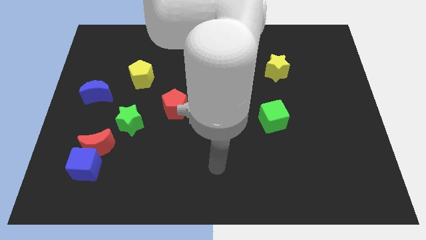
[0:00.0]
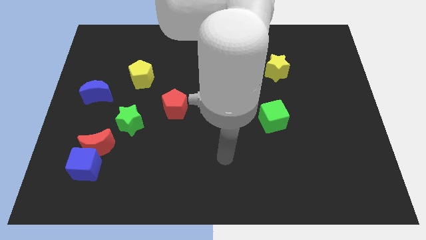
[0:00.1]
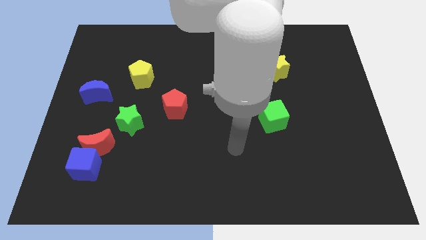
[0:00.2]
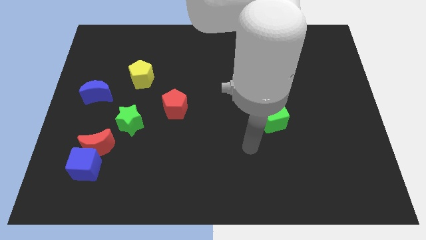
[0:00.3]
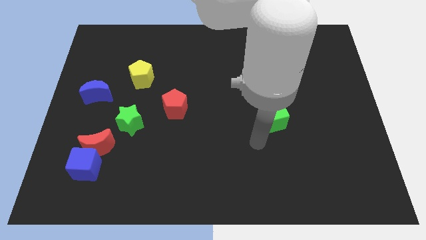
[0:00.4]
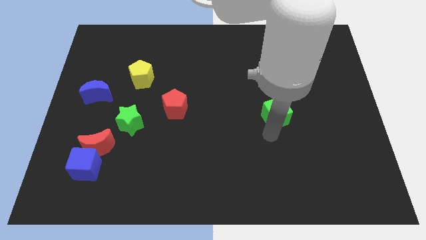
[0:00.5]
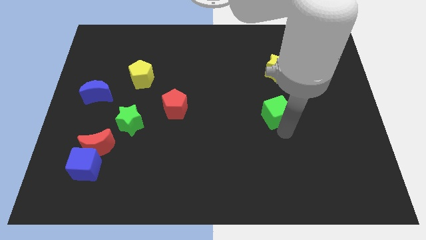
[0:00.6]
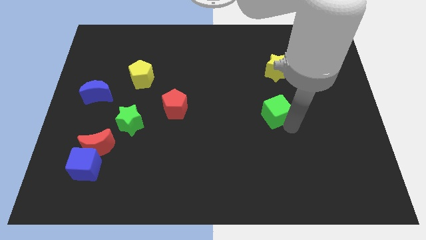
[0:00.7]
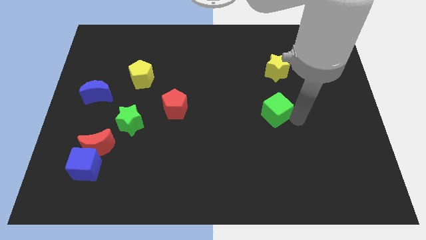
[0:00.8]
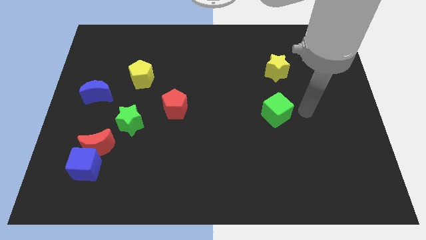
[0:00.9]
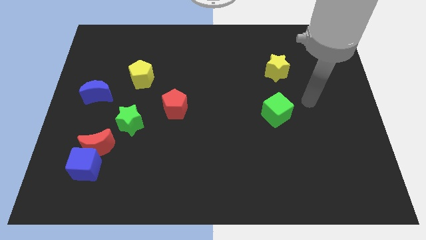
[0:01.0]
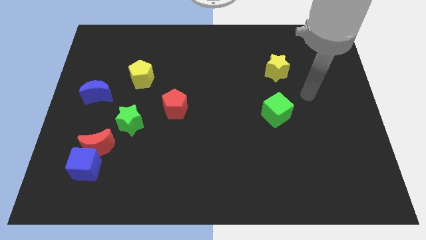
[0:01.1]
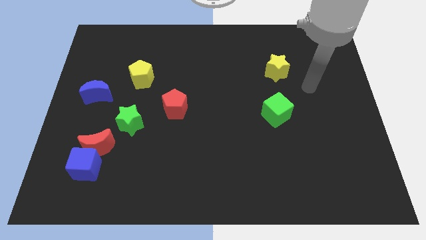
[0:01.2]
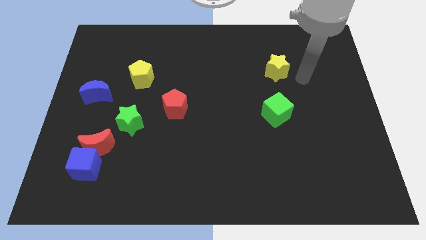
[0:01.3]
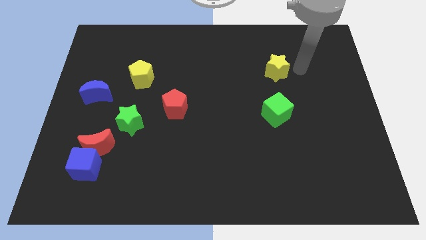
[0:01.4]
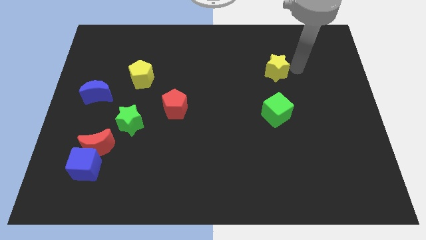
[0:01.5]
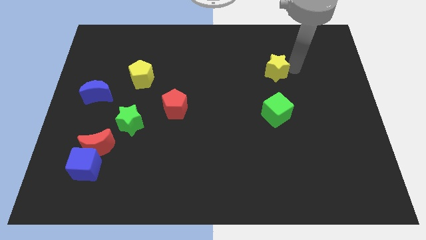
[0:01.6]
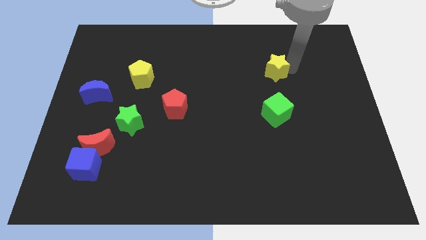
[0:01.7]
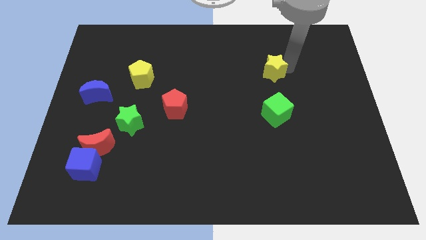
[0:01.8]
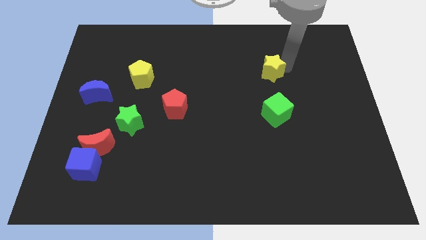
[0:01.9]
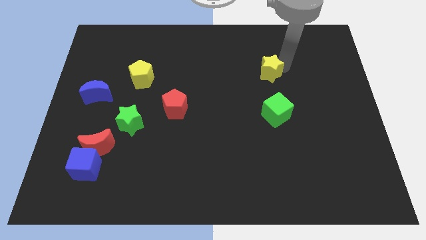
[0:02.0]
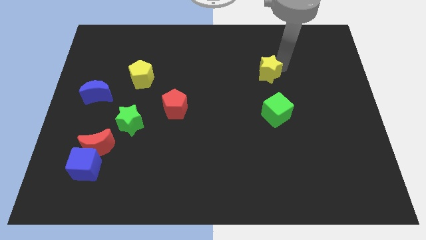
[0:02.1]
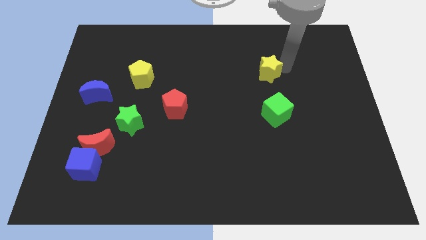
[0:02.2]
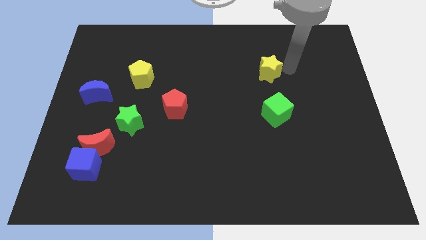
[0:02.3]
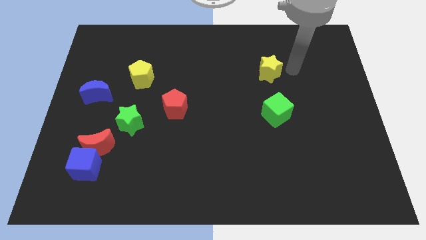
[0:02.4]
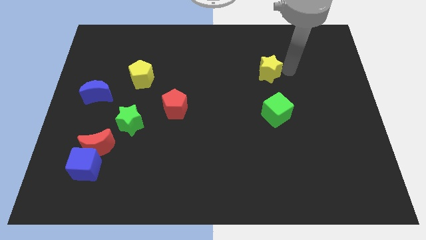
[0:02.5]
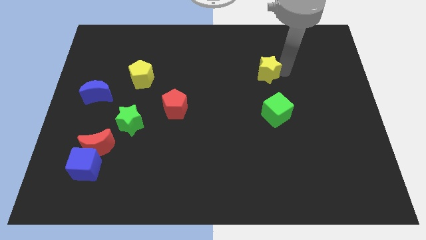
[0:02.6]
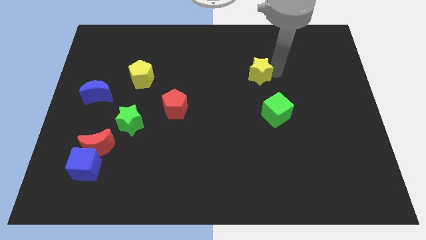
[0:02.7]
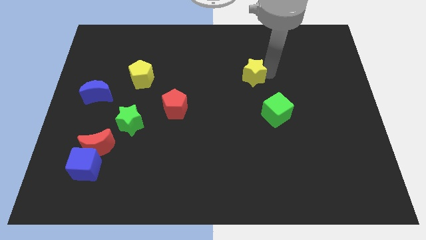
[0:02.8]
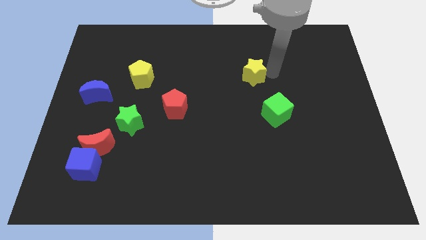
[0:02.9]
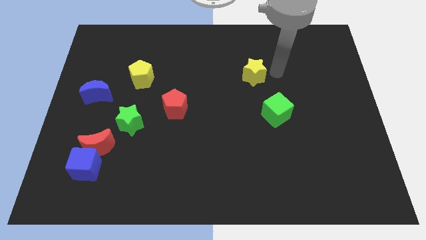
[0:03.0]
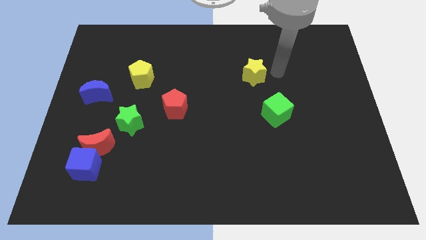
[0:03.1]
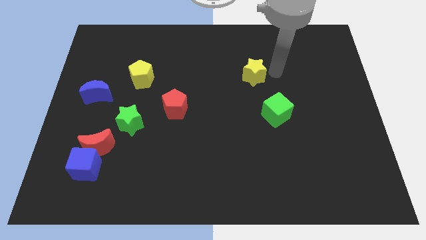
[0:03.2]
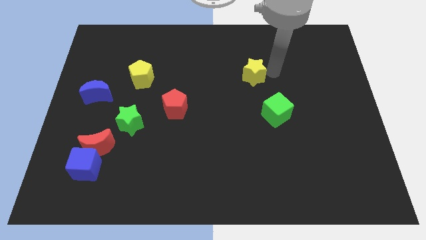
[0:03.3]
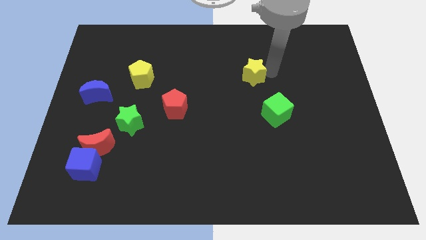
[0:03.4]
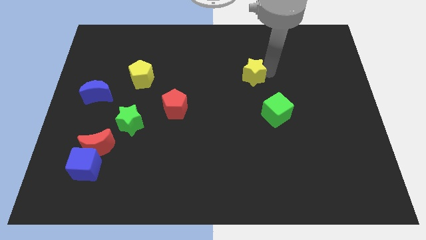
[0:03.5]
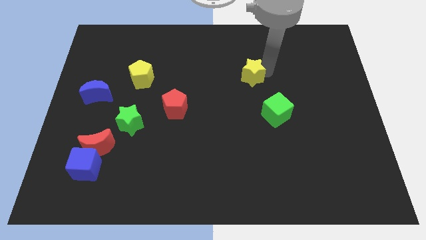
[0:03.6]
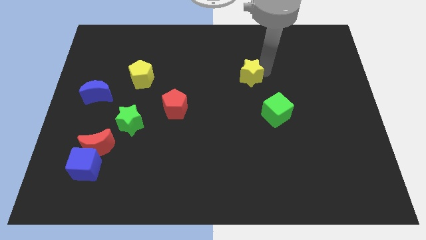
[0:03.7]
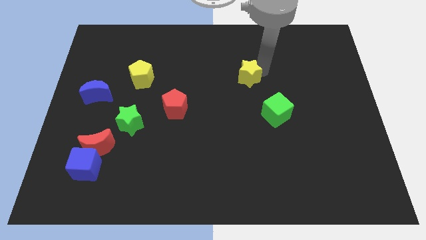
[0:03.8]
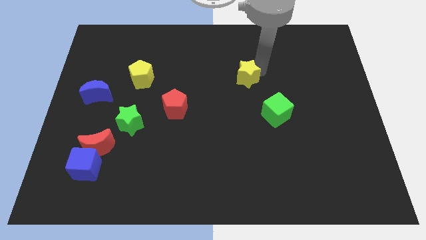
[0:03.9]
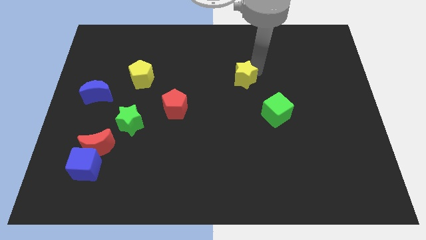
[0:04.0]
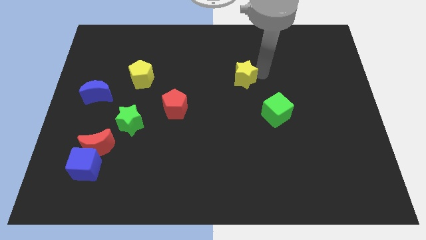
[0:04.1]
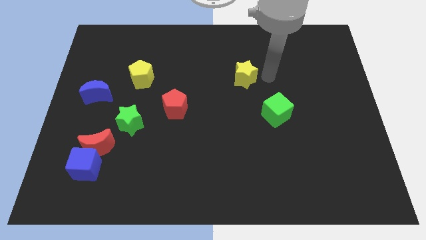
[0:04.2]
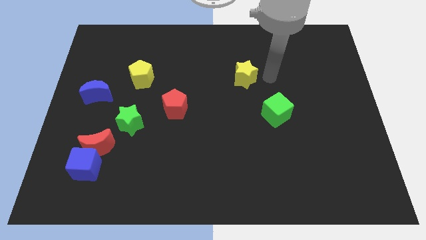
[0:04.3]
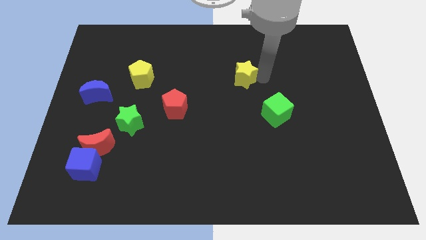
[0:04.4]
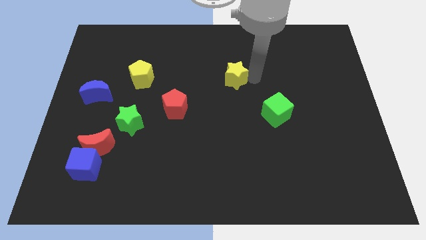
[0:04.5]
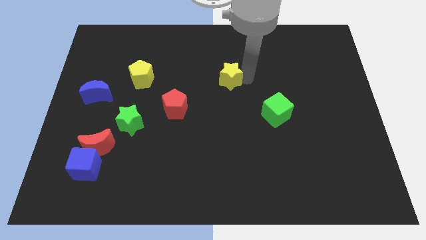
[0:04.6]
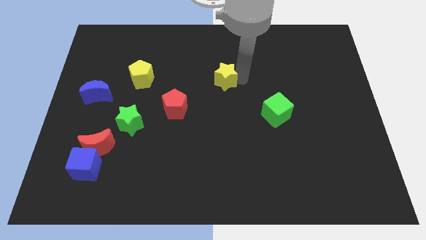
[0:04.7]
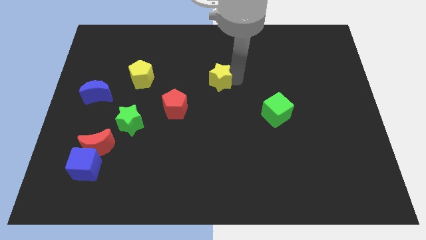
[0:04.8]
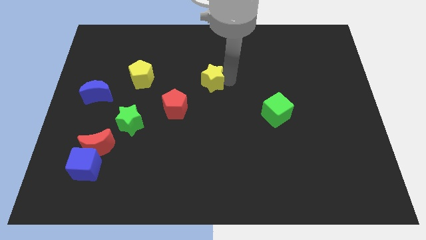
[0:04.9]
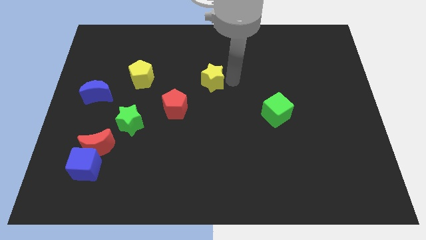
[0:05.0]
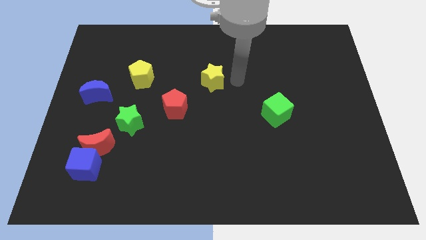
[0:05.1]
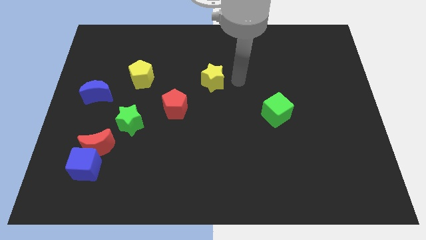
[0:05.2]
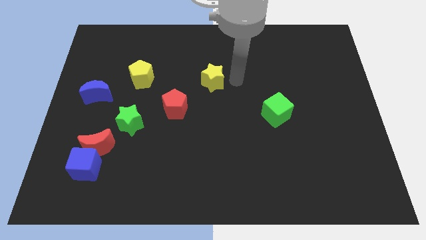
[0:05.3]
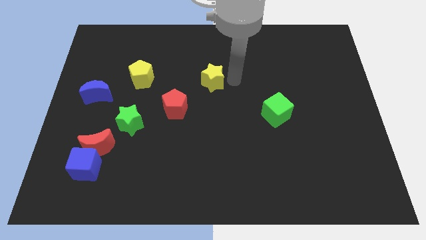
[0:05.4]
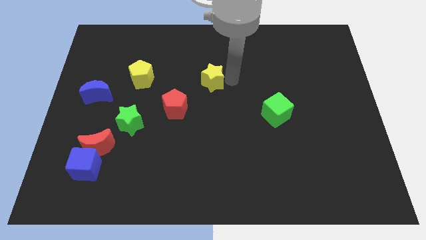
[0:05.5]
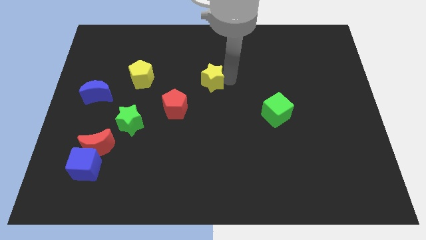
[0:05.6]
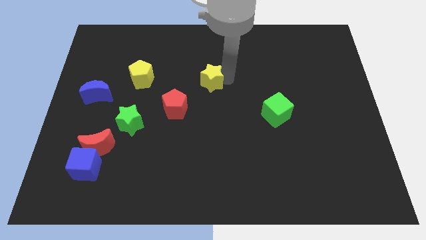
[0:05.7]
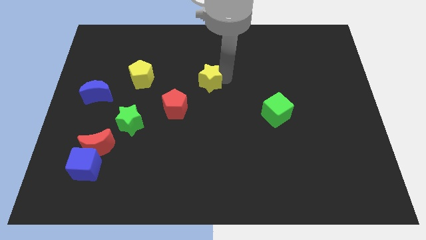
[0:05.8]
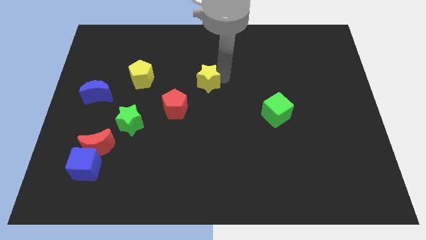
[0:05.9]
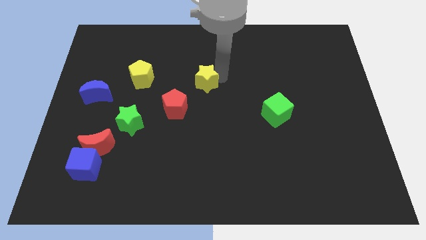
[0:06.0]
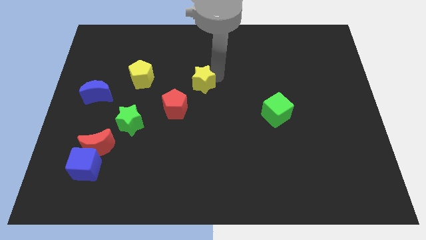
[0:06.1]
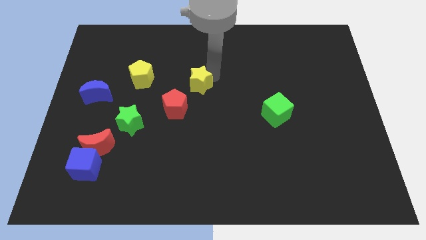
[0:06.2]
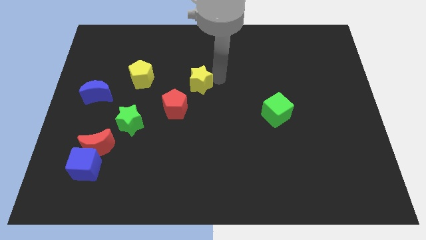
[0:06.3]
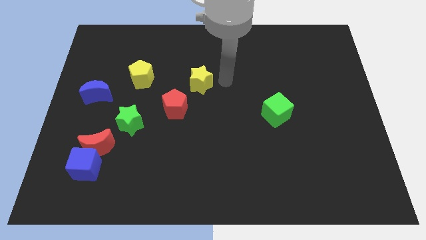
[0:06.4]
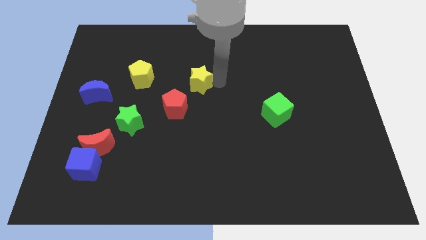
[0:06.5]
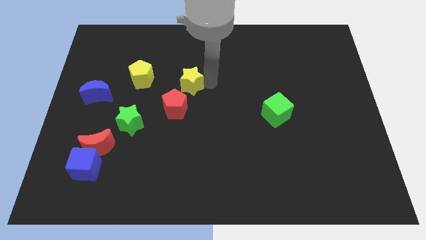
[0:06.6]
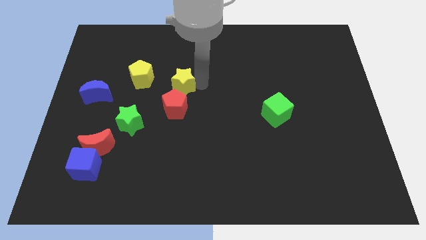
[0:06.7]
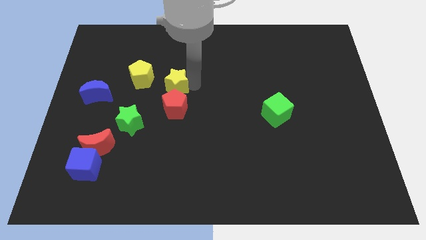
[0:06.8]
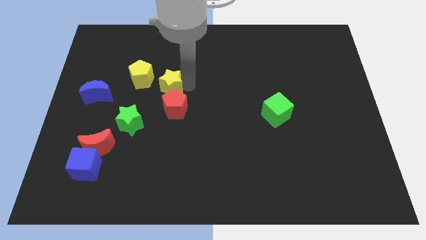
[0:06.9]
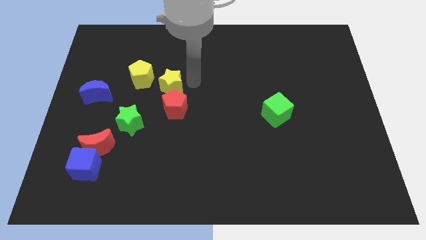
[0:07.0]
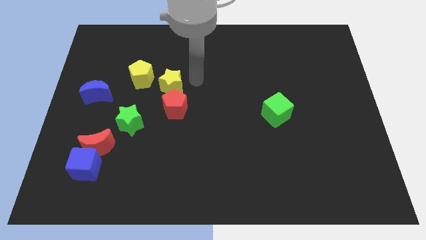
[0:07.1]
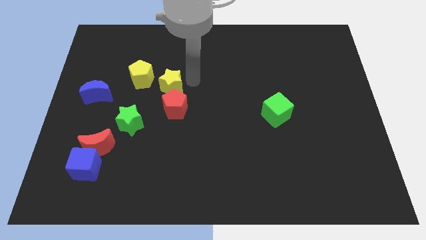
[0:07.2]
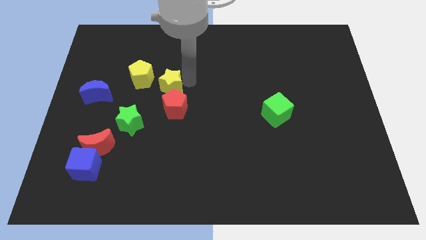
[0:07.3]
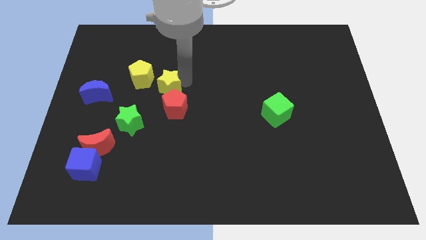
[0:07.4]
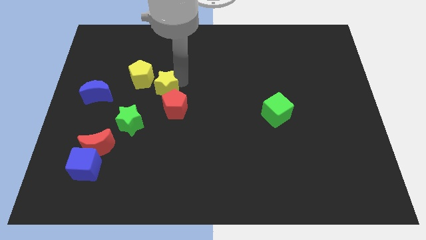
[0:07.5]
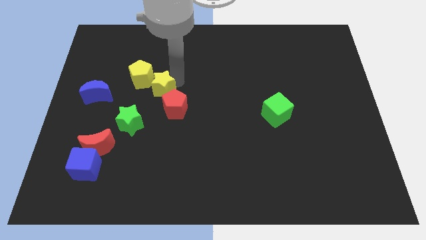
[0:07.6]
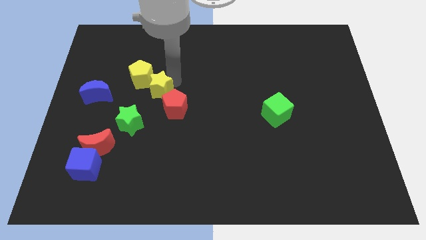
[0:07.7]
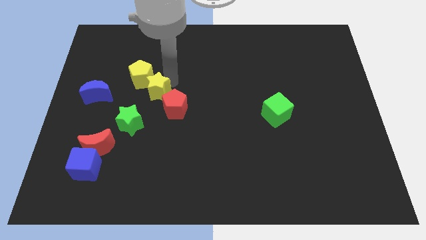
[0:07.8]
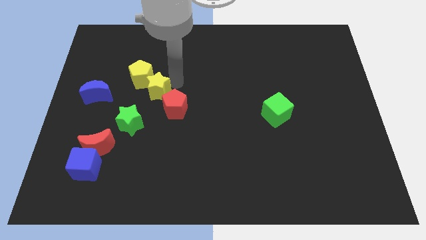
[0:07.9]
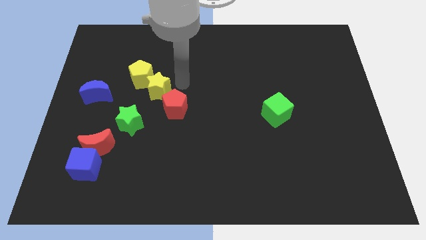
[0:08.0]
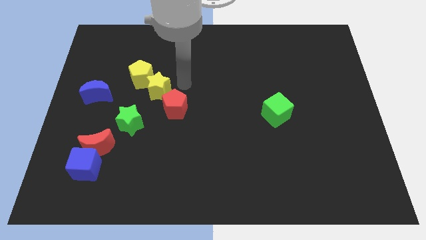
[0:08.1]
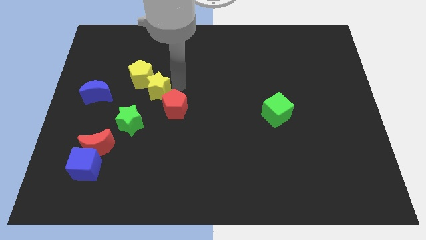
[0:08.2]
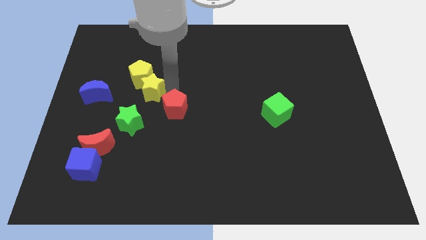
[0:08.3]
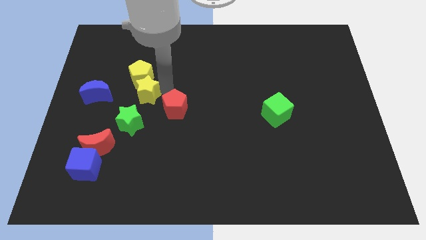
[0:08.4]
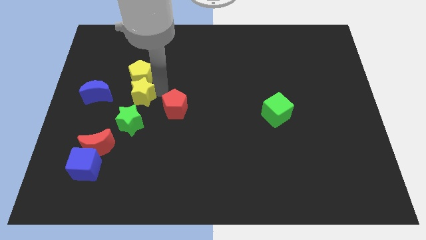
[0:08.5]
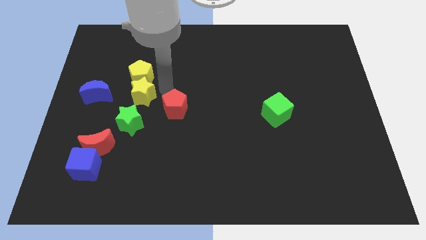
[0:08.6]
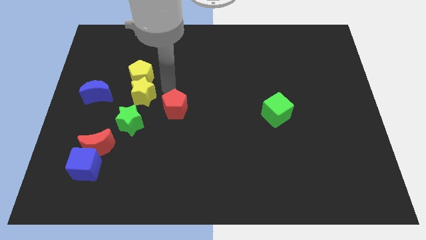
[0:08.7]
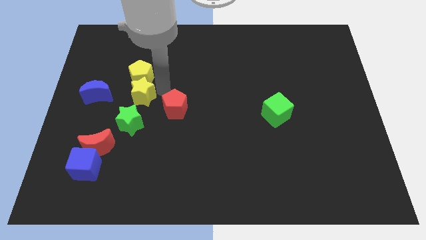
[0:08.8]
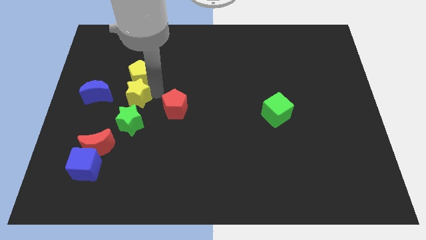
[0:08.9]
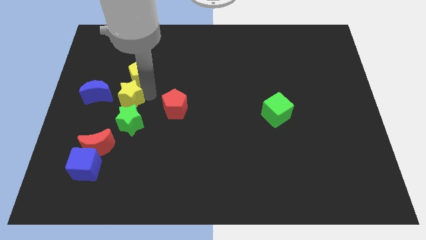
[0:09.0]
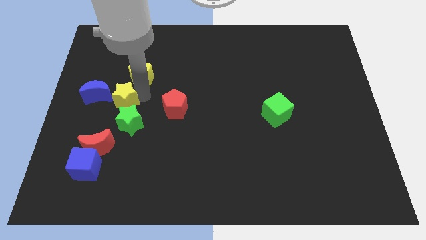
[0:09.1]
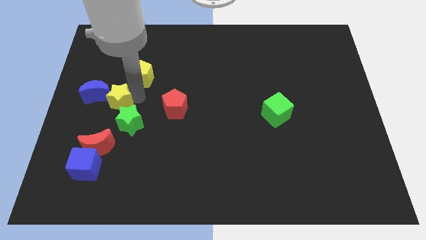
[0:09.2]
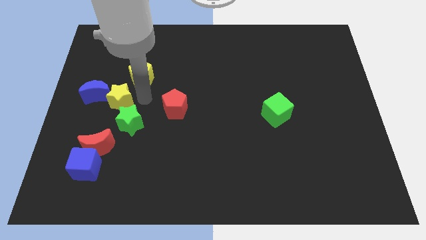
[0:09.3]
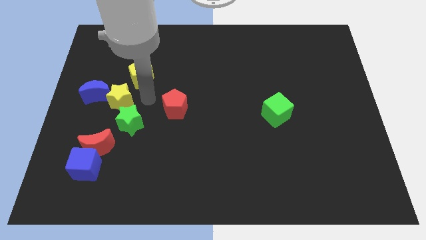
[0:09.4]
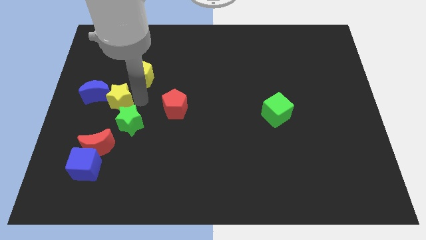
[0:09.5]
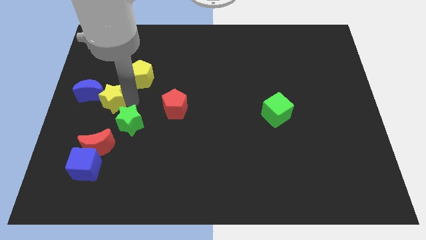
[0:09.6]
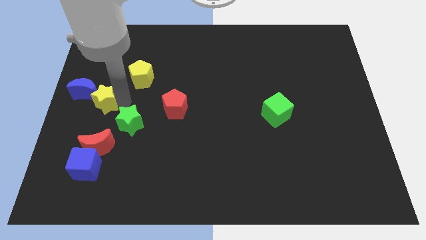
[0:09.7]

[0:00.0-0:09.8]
slide the yellow star to the center left
